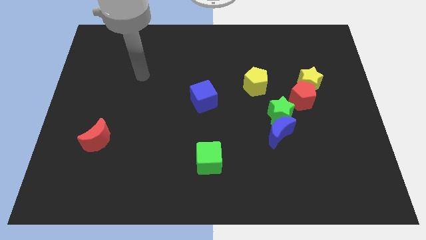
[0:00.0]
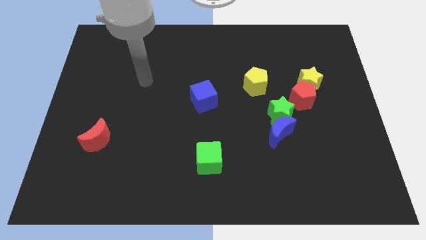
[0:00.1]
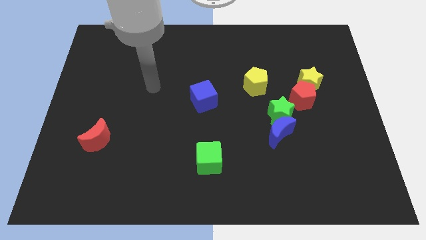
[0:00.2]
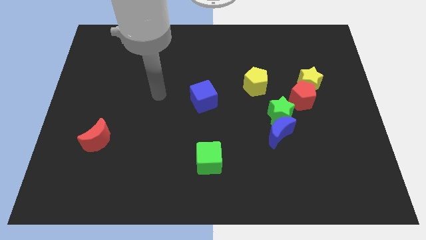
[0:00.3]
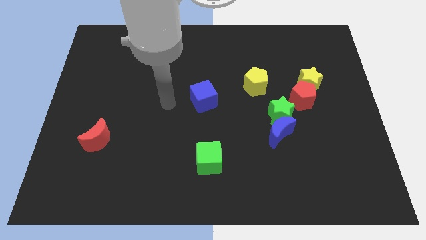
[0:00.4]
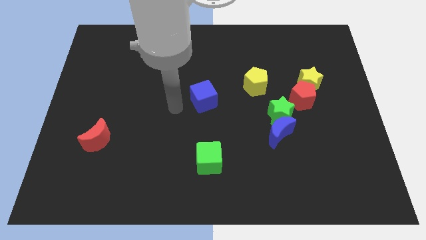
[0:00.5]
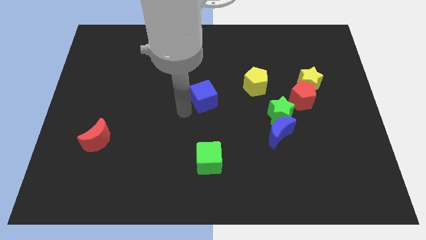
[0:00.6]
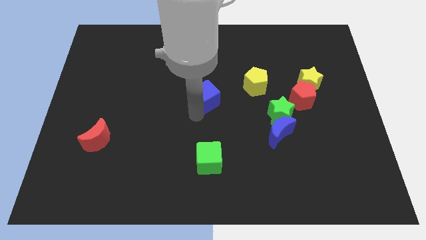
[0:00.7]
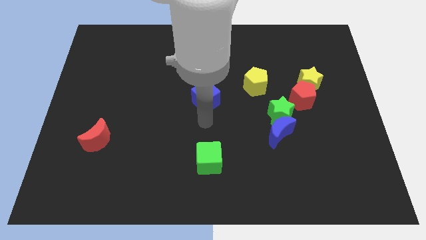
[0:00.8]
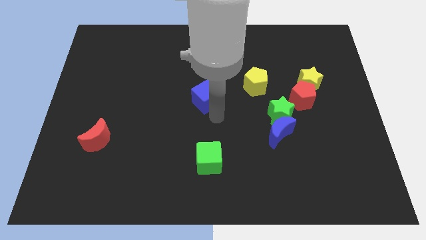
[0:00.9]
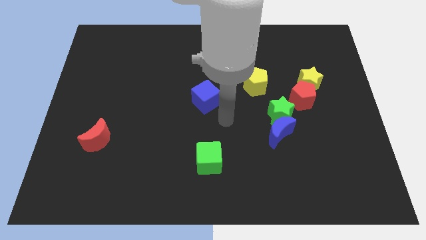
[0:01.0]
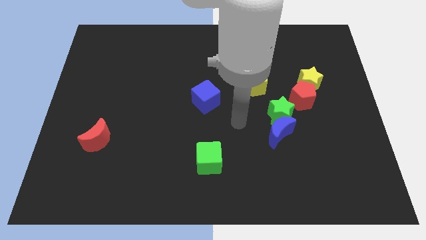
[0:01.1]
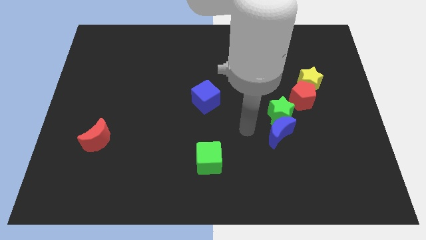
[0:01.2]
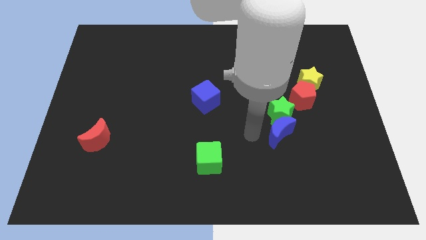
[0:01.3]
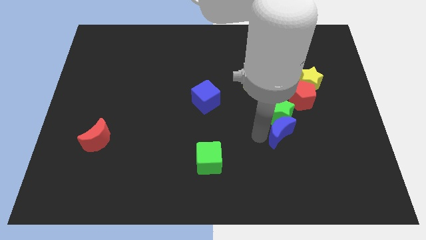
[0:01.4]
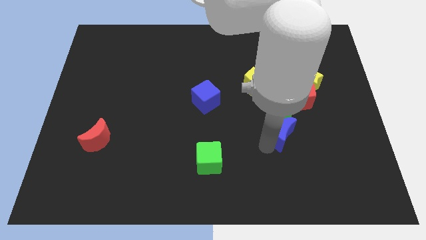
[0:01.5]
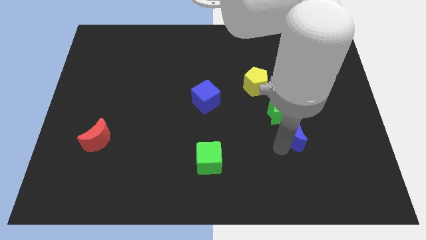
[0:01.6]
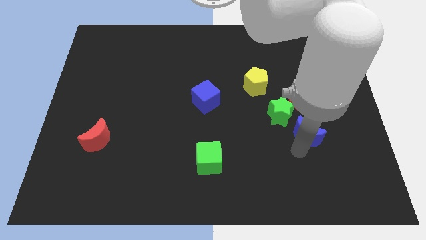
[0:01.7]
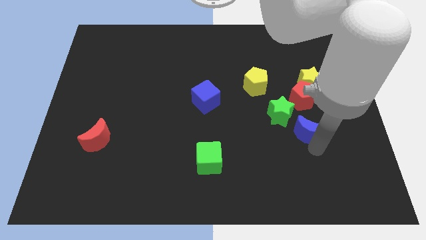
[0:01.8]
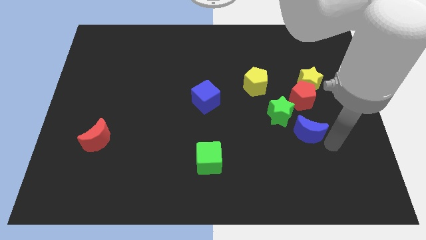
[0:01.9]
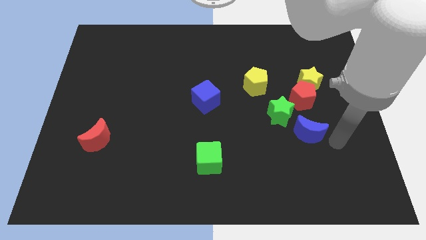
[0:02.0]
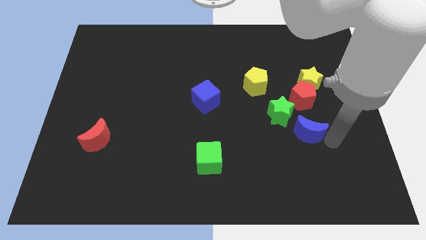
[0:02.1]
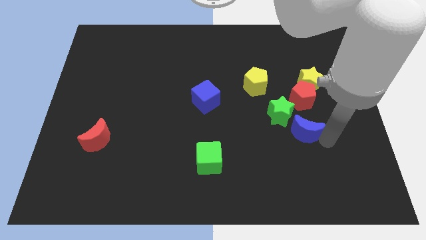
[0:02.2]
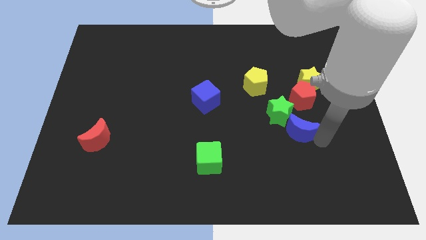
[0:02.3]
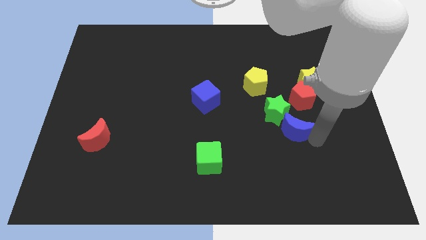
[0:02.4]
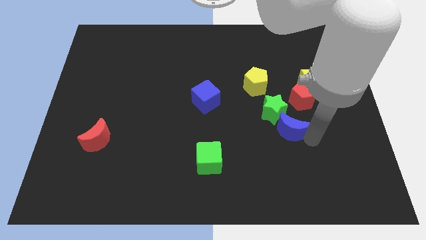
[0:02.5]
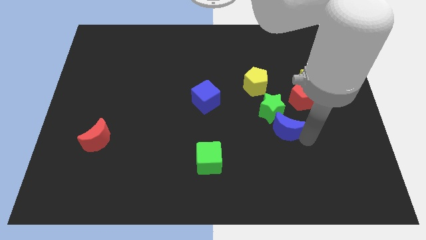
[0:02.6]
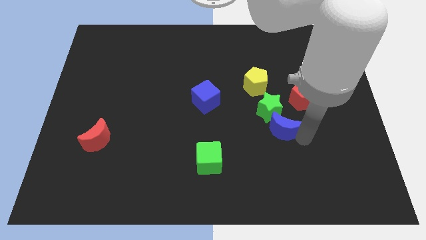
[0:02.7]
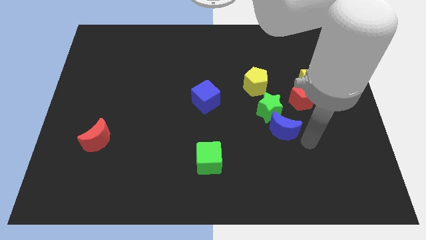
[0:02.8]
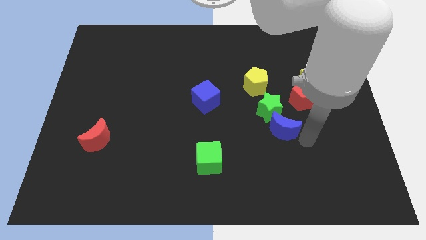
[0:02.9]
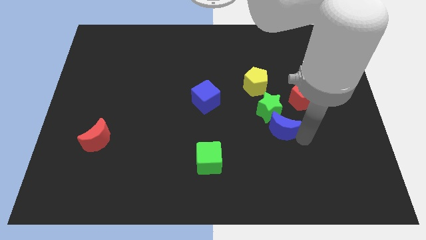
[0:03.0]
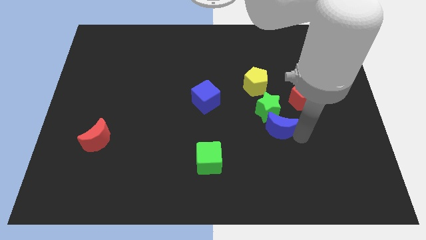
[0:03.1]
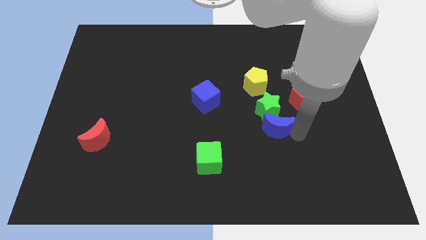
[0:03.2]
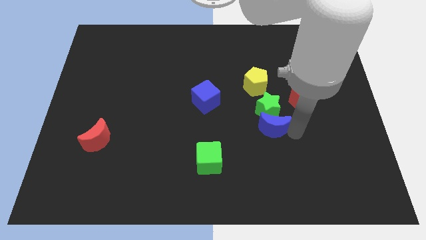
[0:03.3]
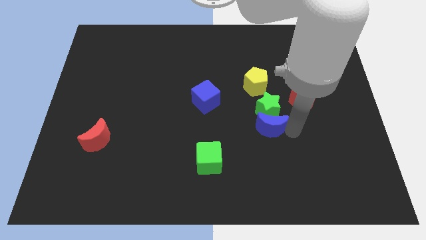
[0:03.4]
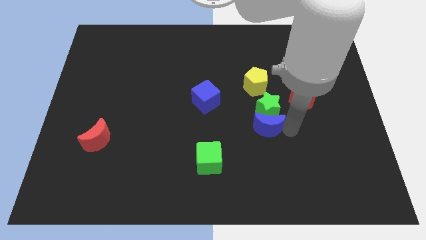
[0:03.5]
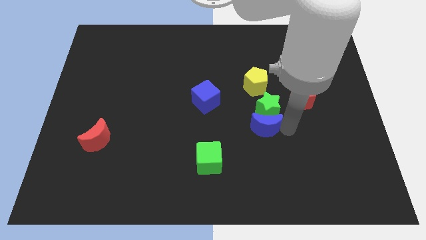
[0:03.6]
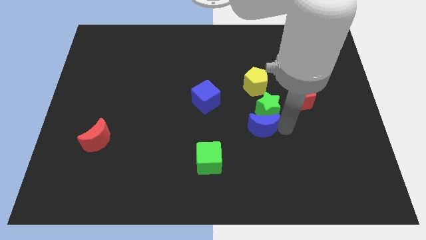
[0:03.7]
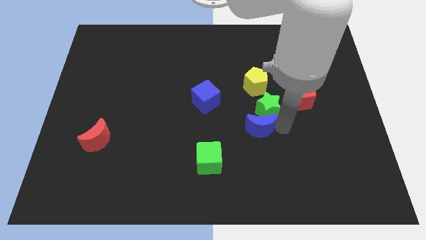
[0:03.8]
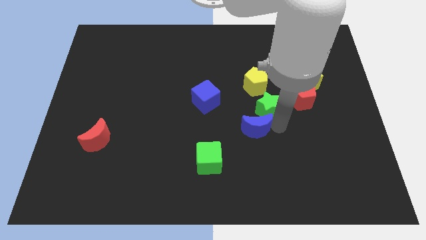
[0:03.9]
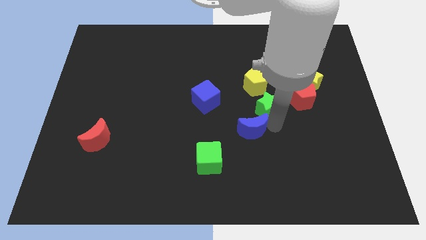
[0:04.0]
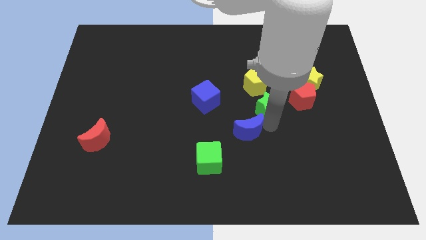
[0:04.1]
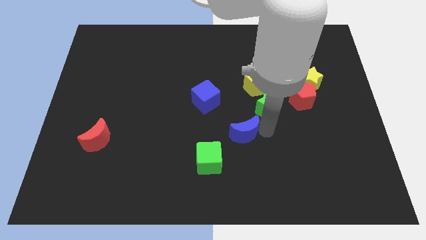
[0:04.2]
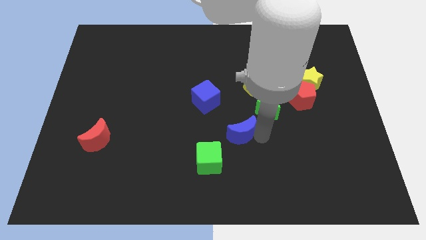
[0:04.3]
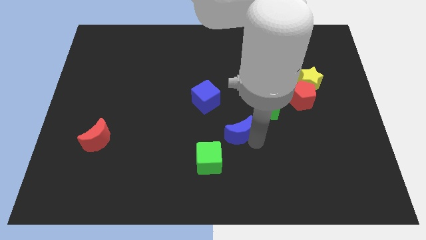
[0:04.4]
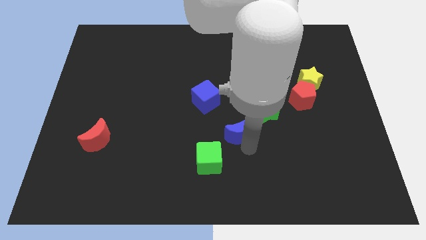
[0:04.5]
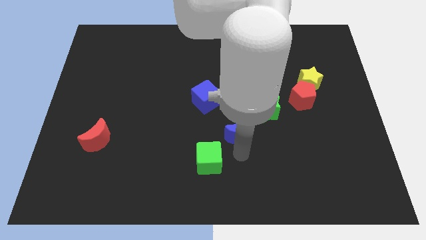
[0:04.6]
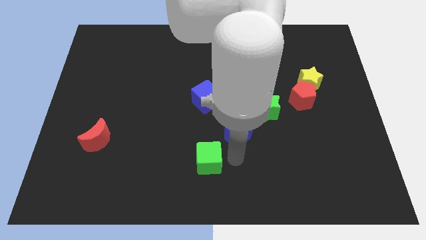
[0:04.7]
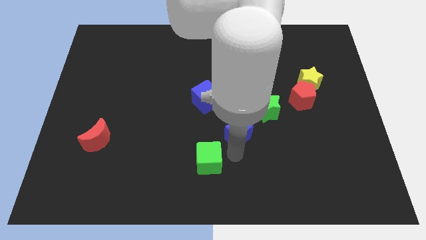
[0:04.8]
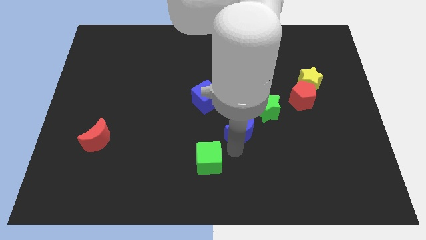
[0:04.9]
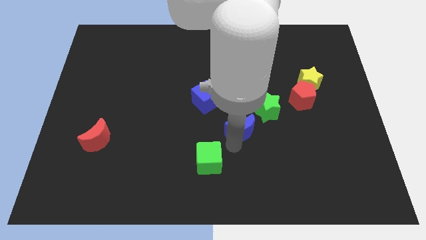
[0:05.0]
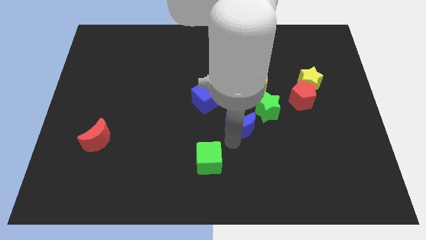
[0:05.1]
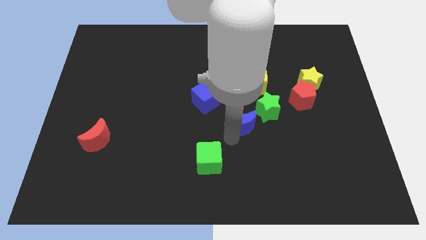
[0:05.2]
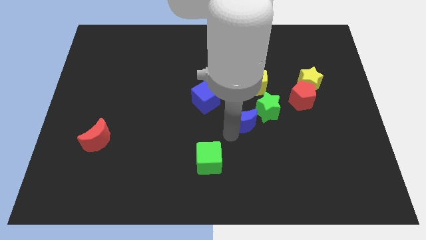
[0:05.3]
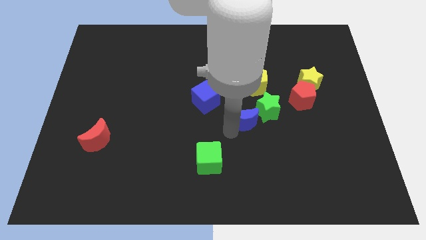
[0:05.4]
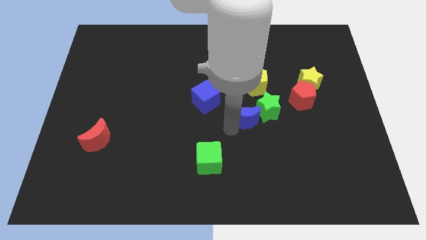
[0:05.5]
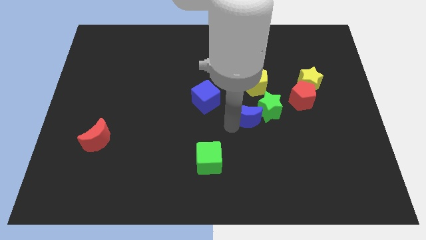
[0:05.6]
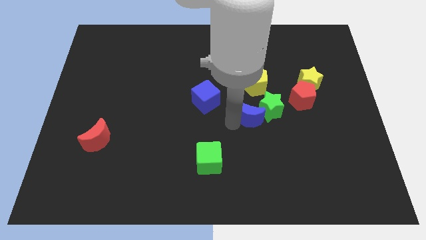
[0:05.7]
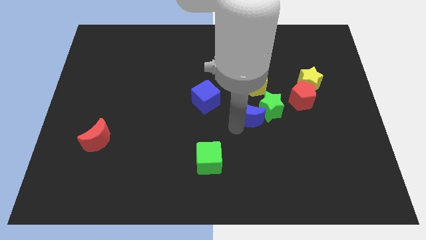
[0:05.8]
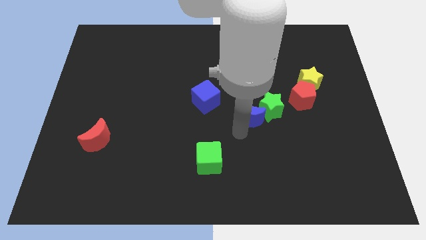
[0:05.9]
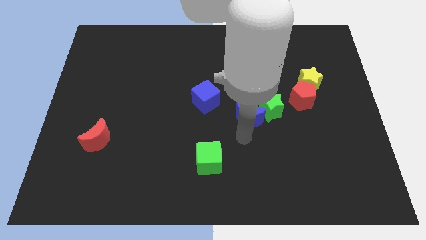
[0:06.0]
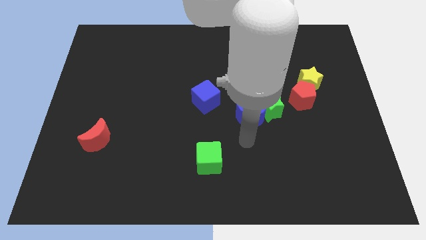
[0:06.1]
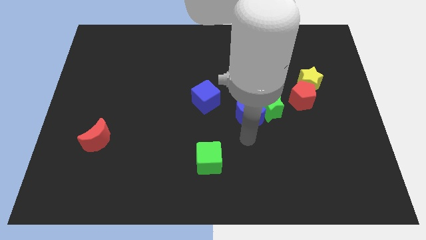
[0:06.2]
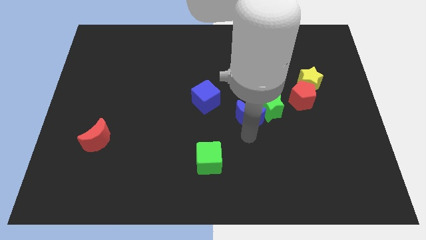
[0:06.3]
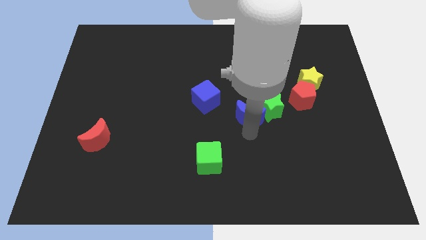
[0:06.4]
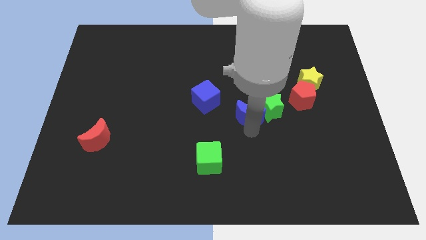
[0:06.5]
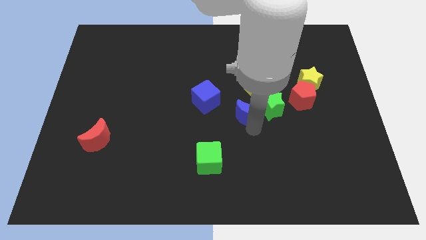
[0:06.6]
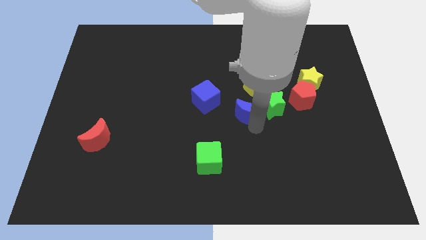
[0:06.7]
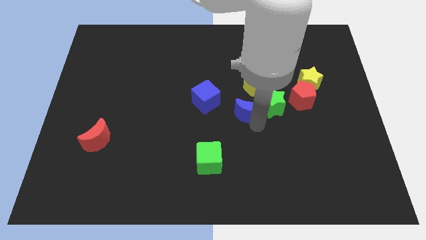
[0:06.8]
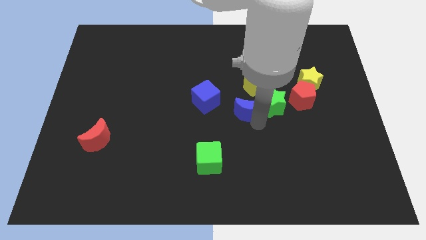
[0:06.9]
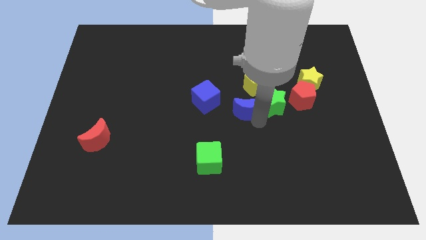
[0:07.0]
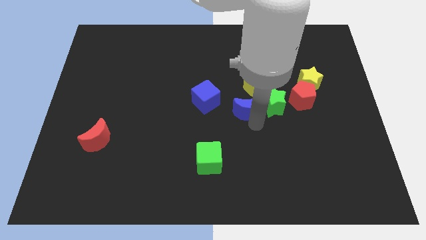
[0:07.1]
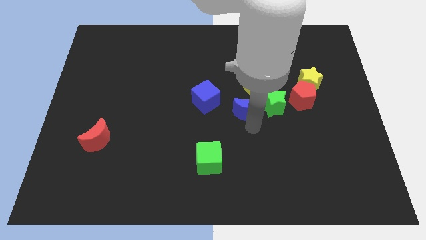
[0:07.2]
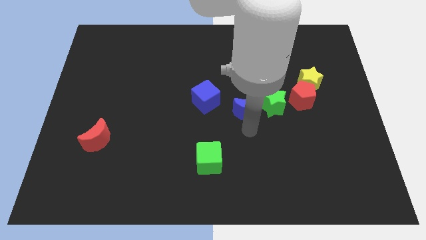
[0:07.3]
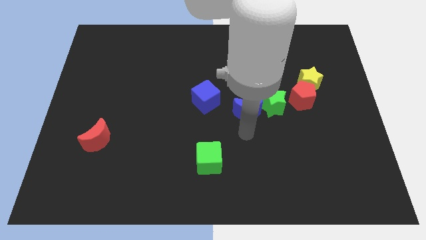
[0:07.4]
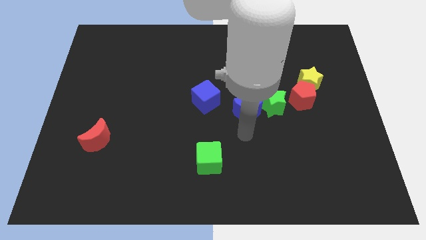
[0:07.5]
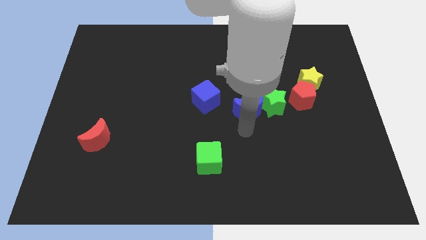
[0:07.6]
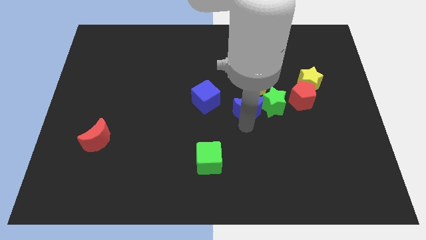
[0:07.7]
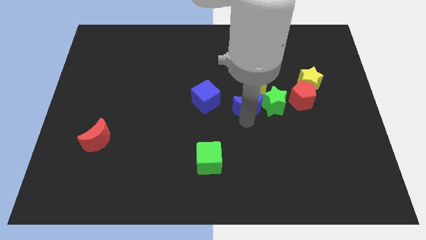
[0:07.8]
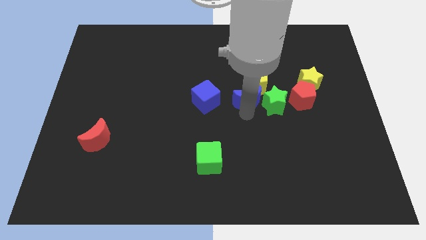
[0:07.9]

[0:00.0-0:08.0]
put the blue moon towards the yellow pentagon
